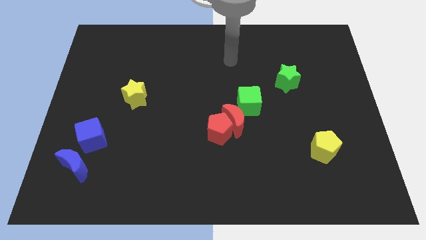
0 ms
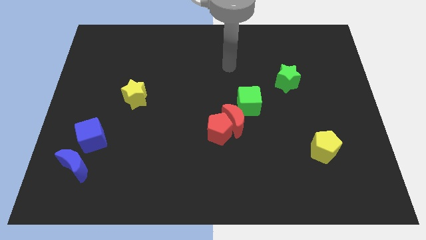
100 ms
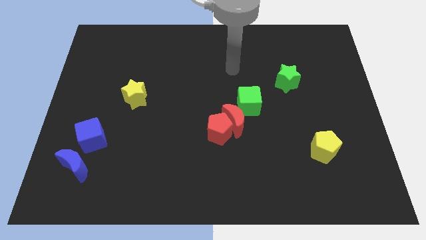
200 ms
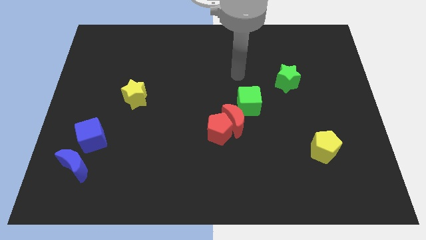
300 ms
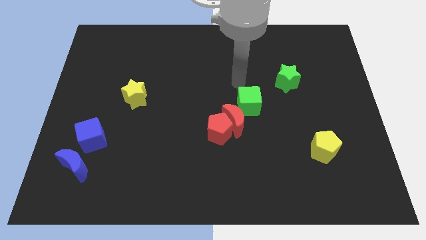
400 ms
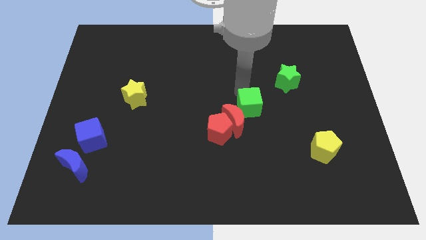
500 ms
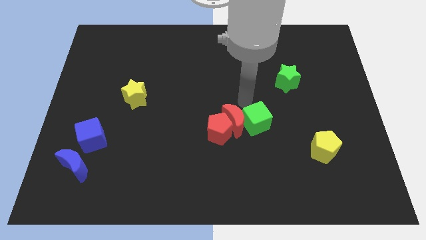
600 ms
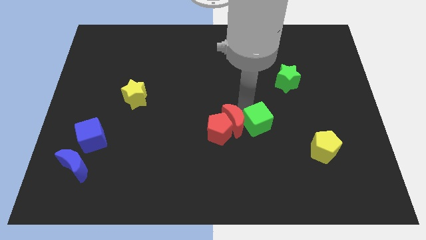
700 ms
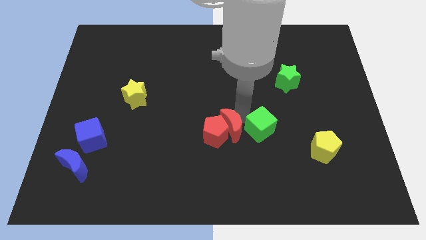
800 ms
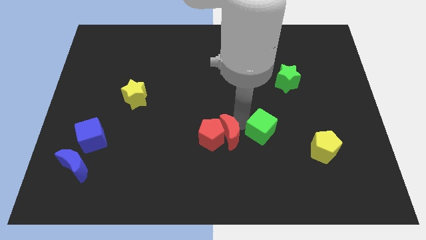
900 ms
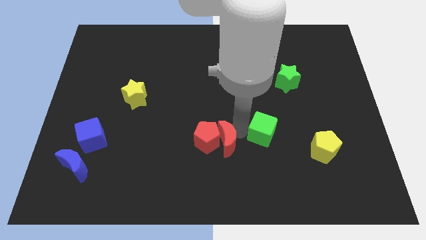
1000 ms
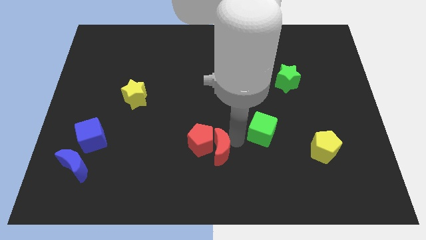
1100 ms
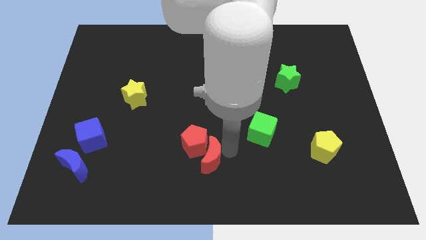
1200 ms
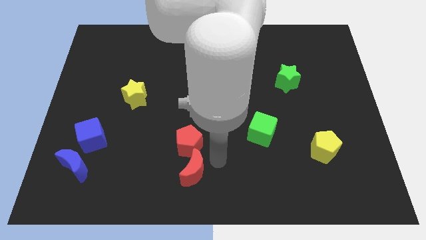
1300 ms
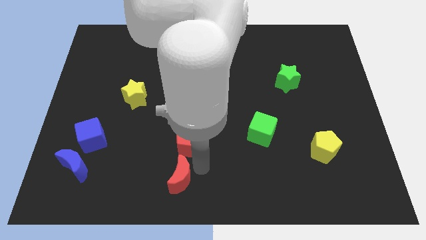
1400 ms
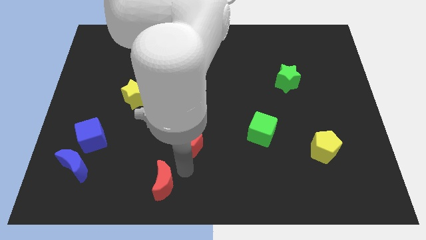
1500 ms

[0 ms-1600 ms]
separate the red pentagon from the red moon

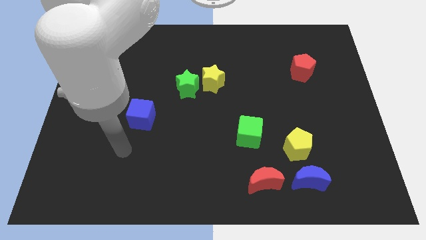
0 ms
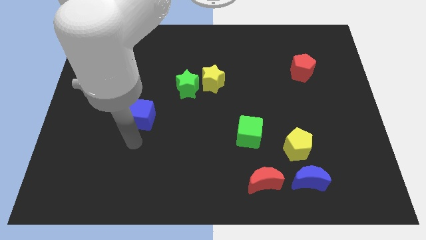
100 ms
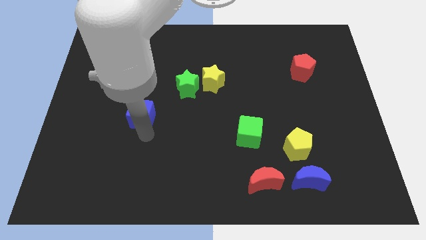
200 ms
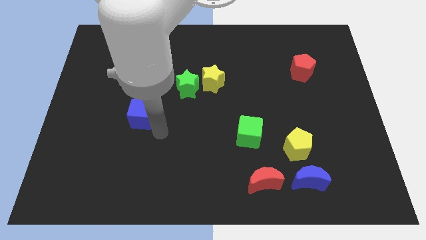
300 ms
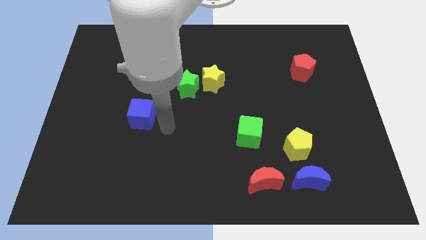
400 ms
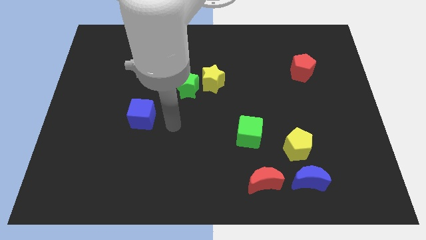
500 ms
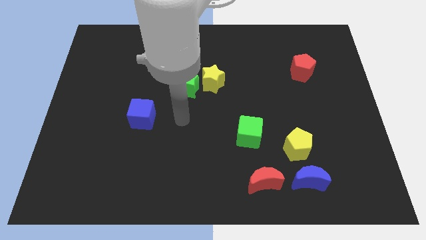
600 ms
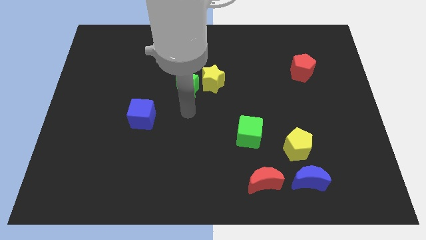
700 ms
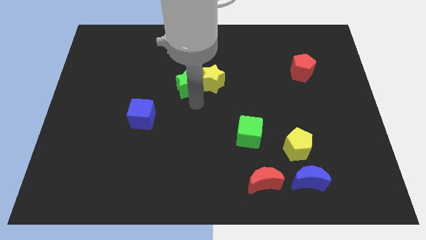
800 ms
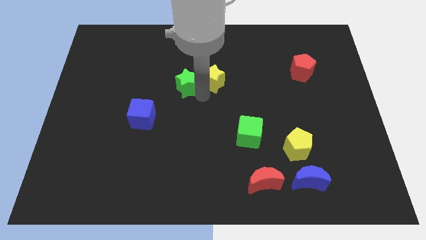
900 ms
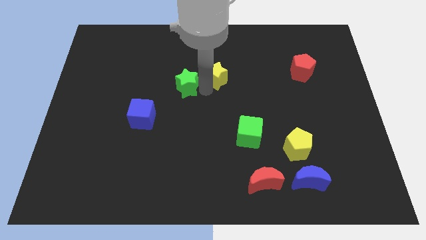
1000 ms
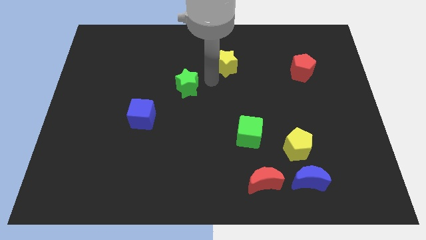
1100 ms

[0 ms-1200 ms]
separate the green star from the yellow star

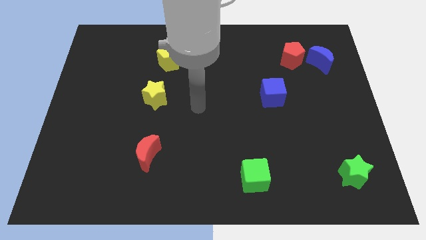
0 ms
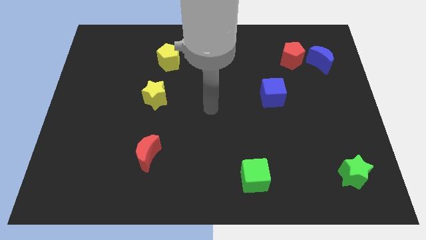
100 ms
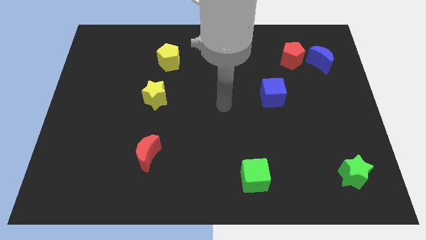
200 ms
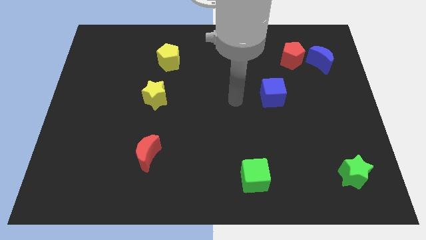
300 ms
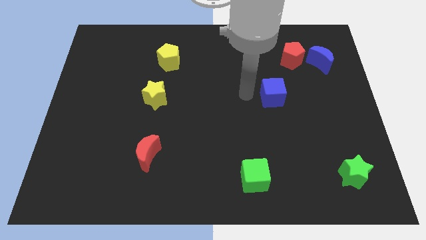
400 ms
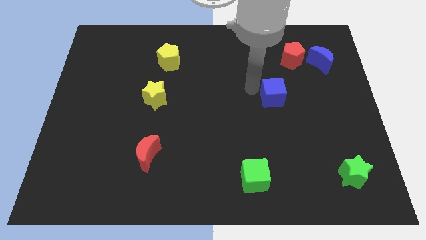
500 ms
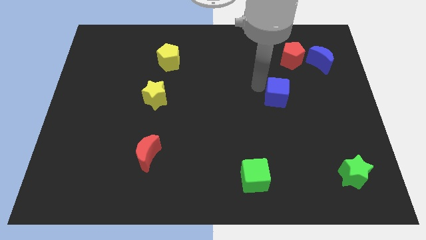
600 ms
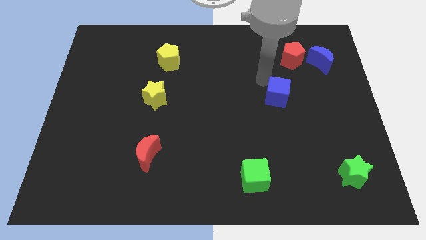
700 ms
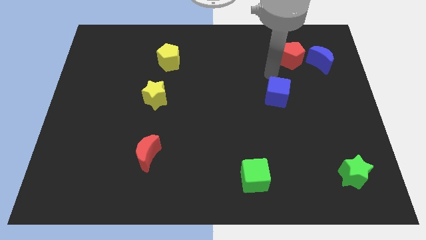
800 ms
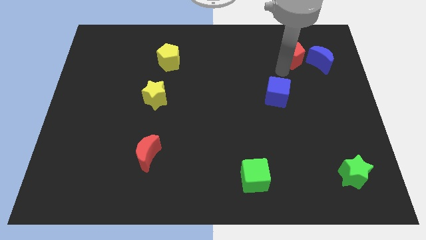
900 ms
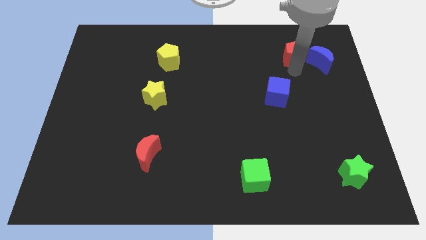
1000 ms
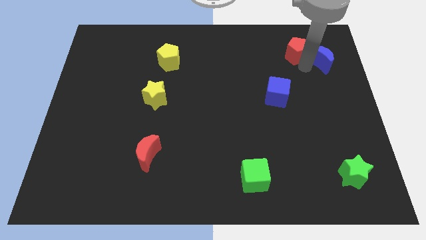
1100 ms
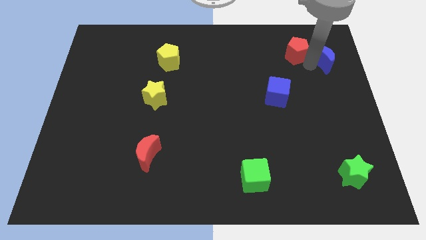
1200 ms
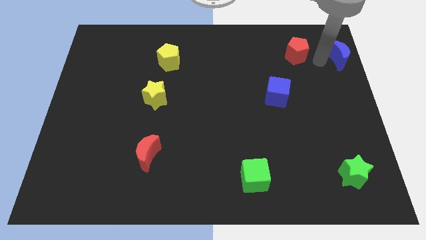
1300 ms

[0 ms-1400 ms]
move the red pentagon away from the blue moon

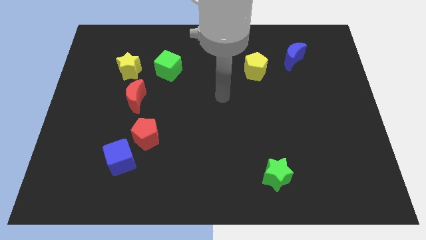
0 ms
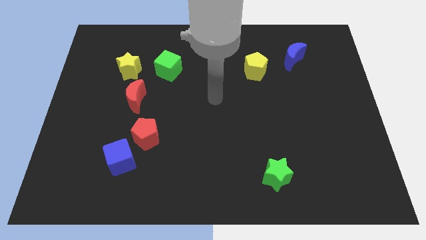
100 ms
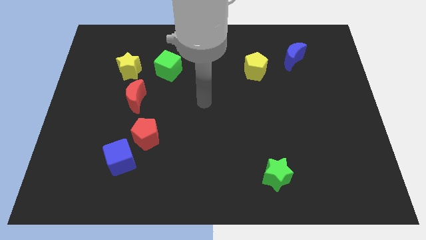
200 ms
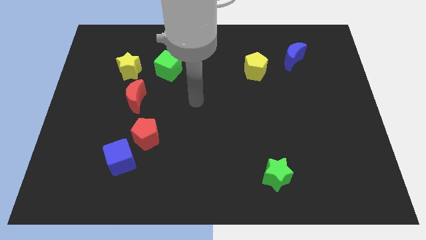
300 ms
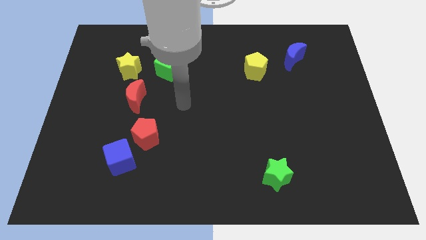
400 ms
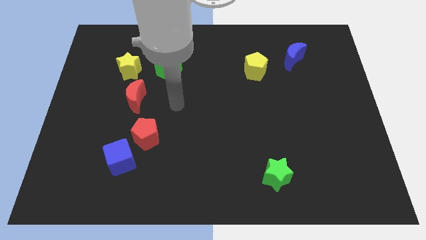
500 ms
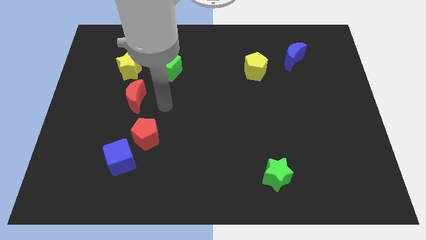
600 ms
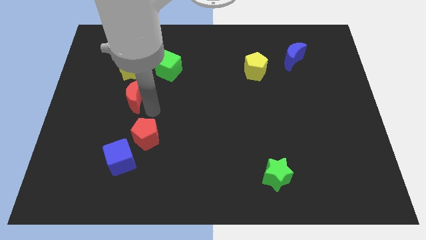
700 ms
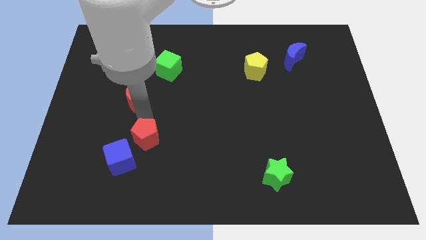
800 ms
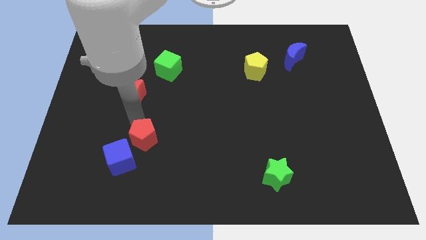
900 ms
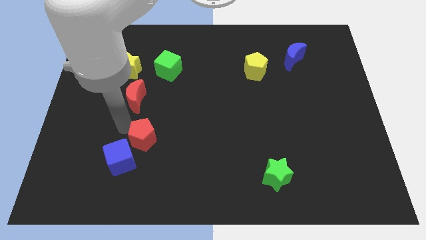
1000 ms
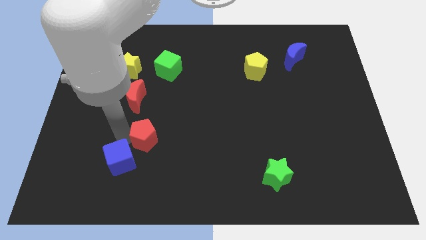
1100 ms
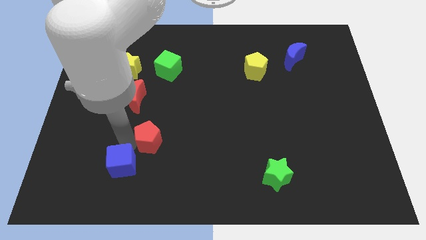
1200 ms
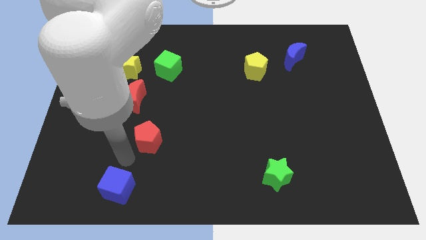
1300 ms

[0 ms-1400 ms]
pull the red pentagon apart from the blue cube

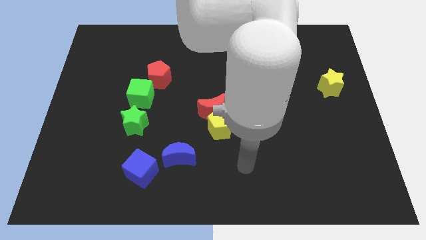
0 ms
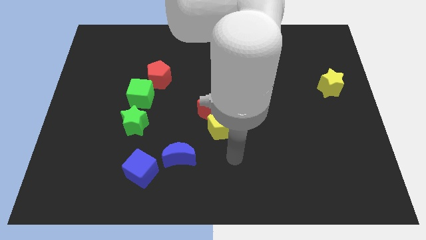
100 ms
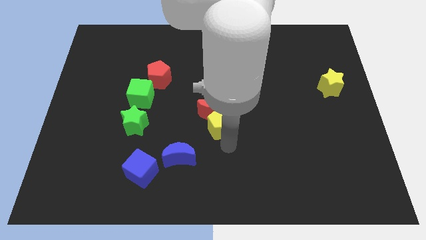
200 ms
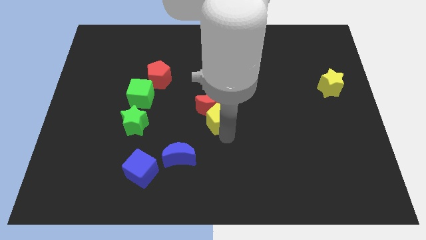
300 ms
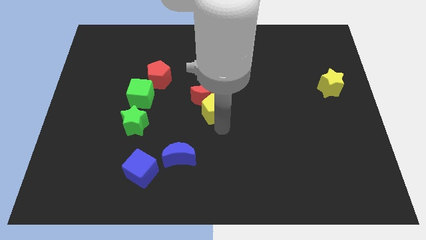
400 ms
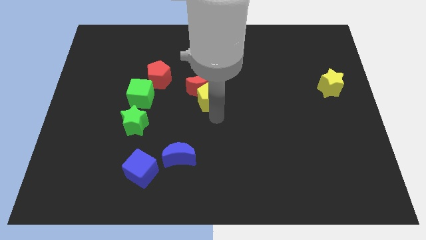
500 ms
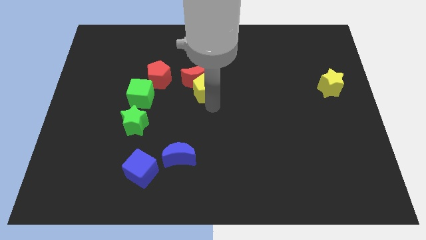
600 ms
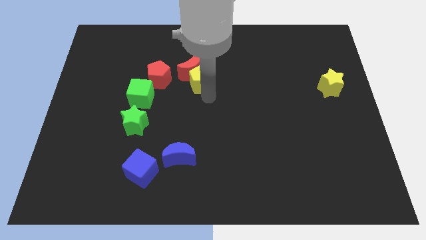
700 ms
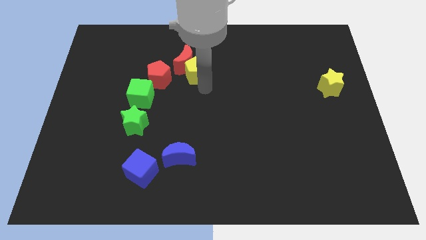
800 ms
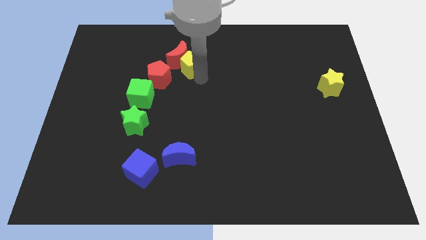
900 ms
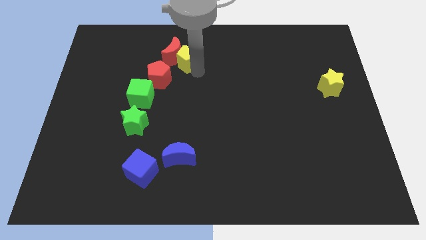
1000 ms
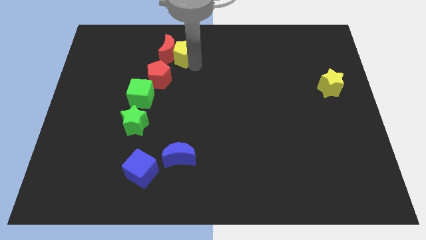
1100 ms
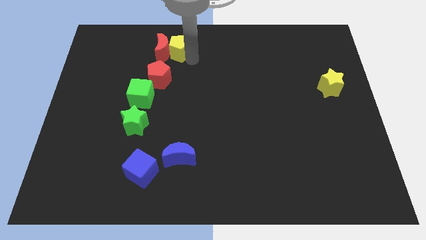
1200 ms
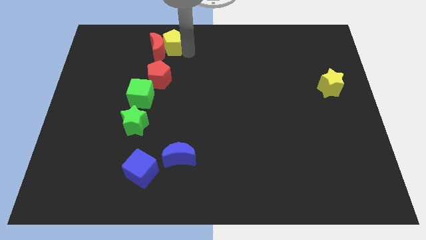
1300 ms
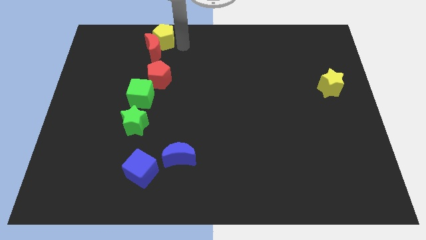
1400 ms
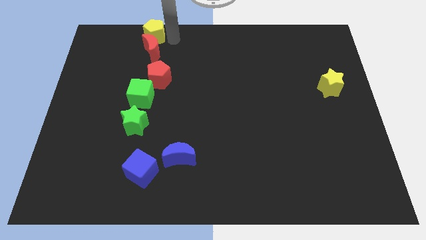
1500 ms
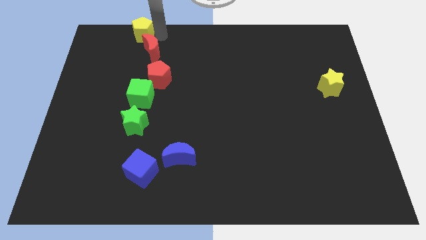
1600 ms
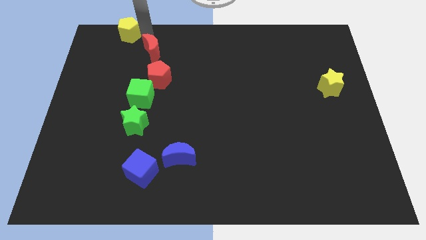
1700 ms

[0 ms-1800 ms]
pull the red moon apart from the yellow pentagon

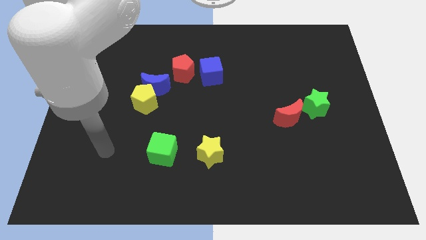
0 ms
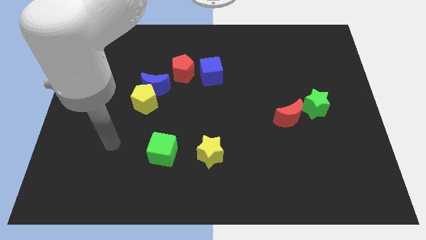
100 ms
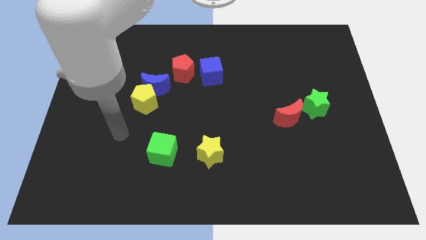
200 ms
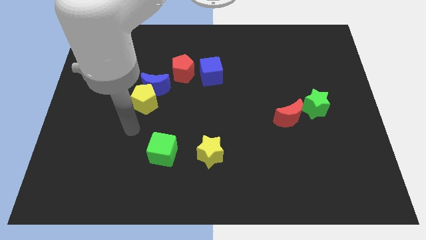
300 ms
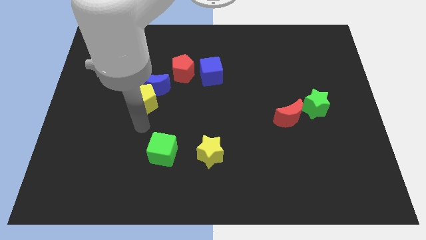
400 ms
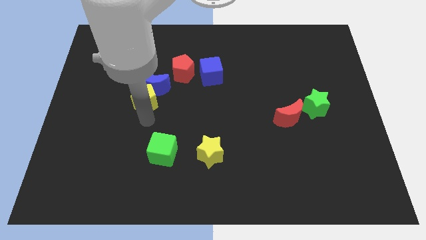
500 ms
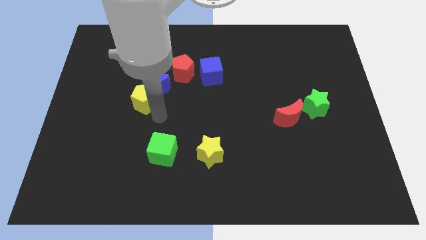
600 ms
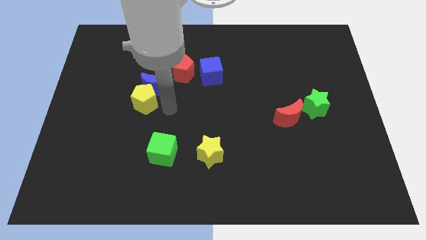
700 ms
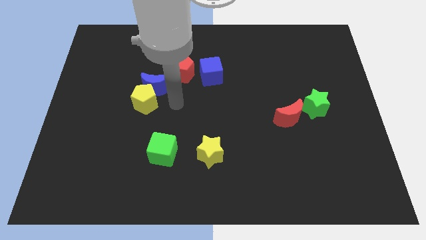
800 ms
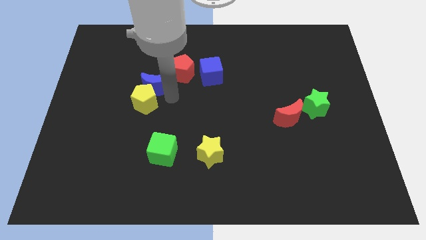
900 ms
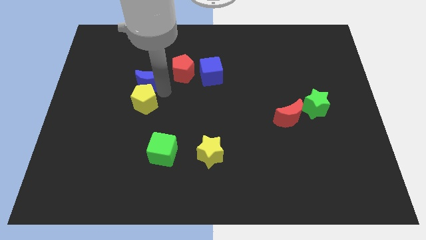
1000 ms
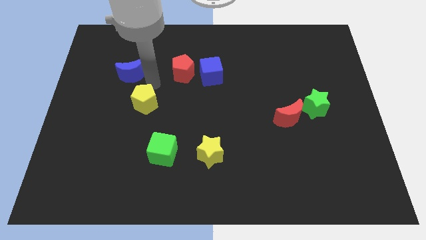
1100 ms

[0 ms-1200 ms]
separate the yellow pentagon from the blue moon

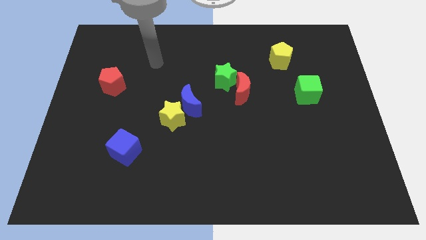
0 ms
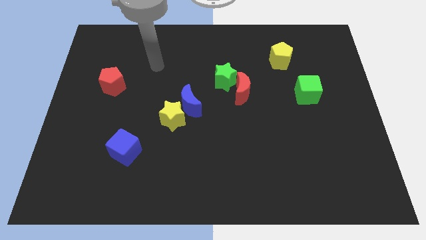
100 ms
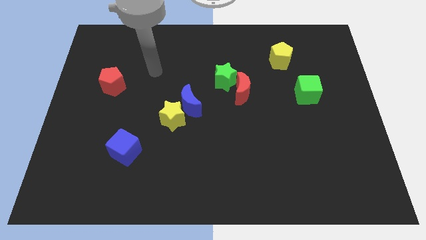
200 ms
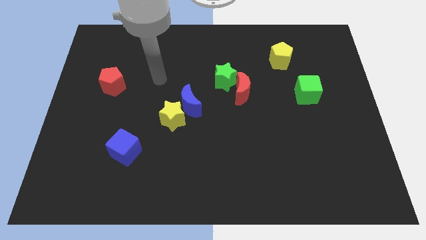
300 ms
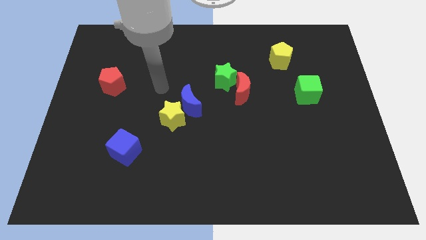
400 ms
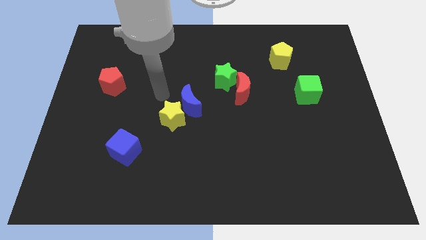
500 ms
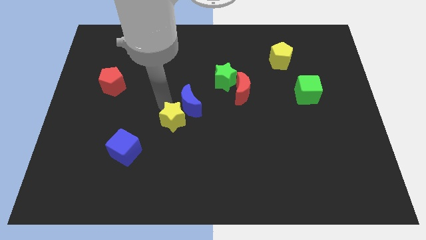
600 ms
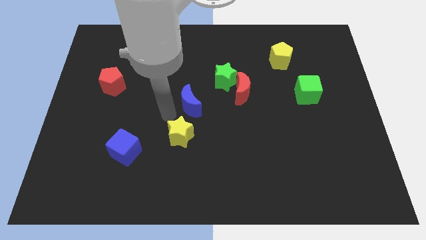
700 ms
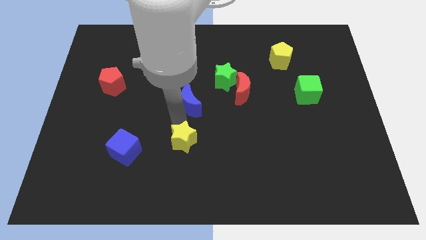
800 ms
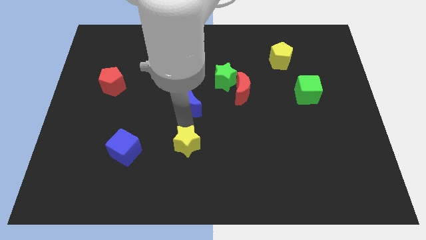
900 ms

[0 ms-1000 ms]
pull the blue moon apart from the yellow star
